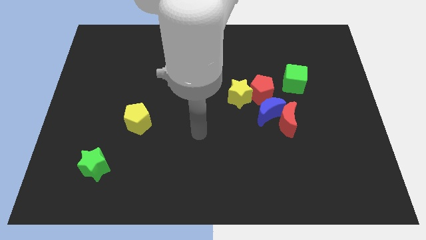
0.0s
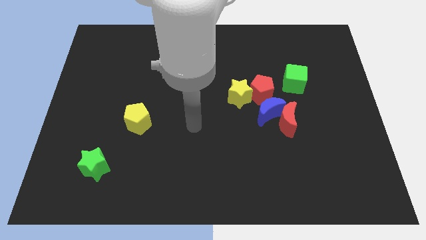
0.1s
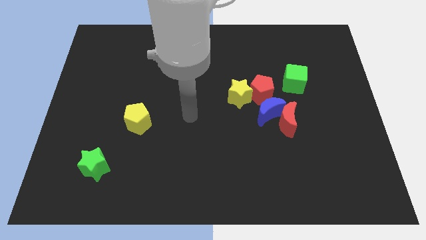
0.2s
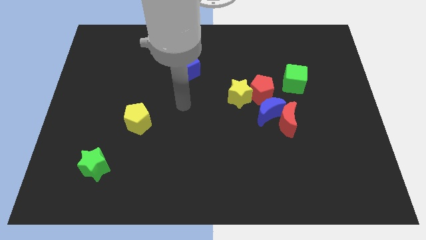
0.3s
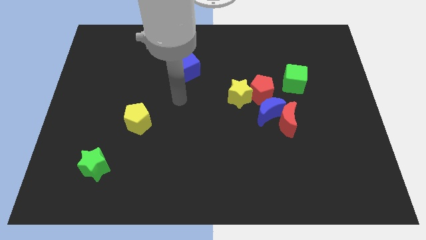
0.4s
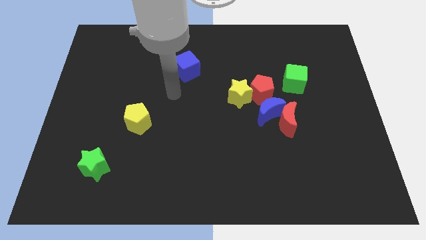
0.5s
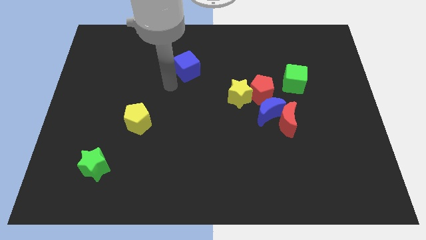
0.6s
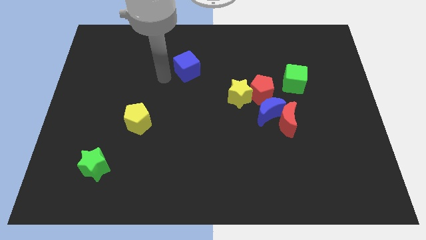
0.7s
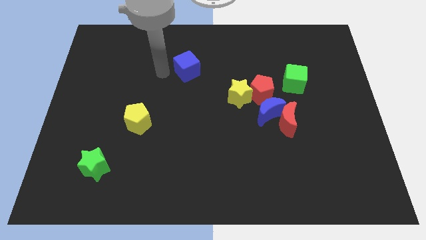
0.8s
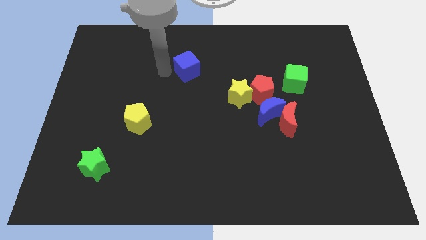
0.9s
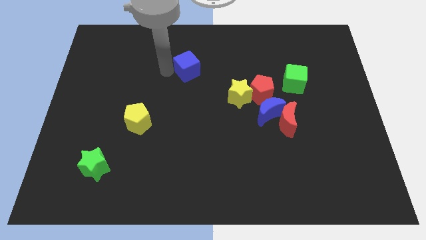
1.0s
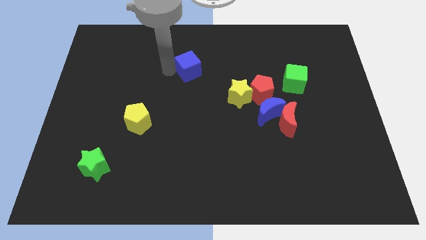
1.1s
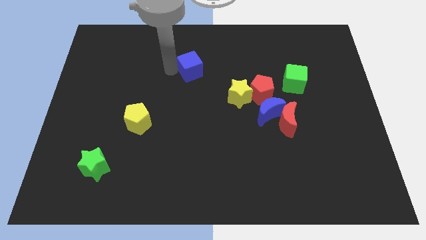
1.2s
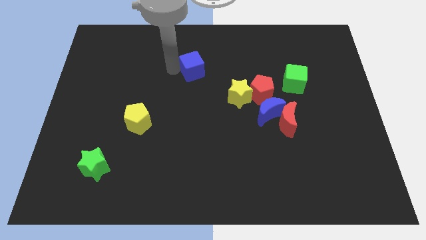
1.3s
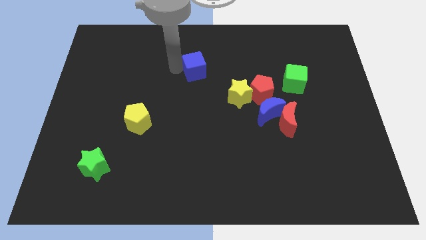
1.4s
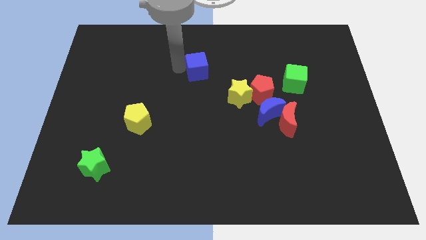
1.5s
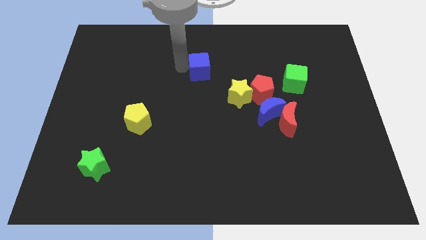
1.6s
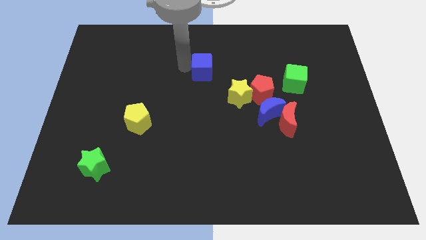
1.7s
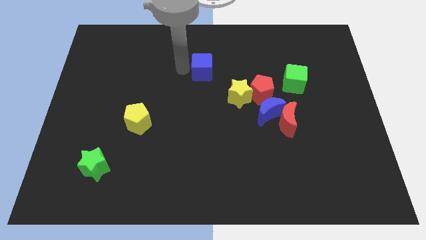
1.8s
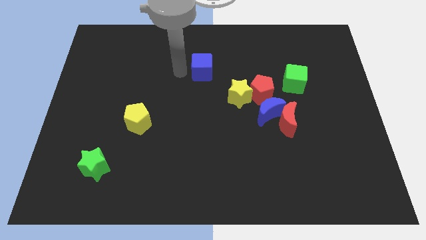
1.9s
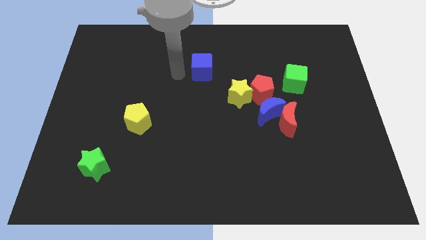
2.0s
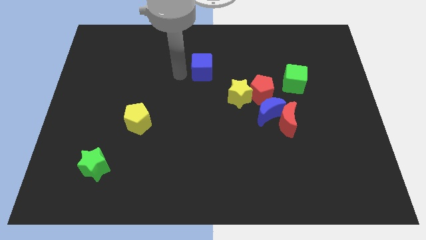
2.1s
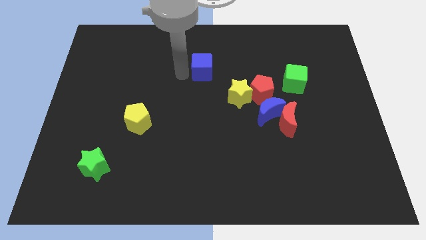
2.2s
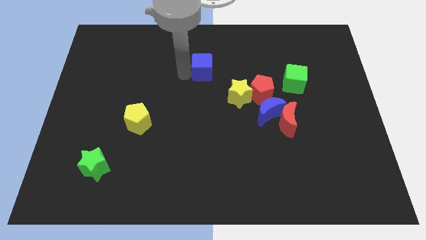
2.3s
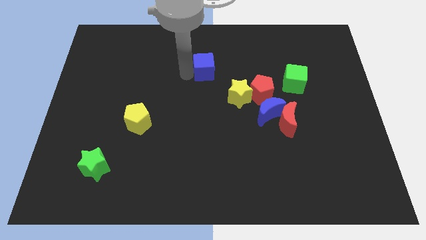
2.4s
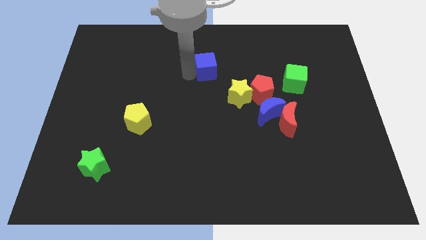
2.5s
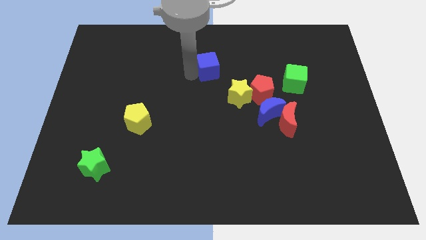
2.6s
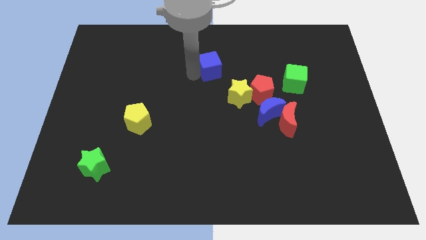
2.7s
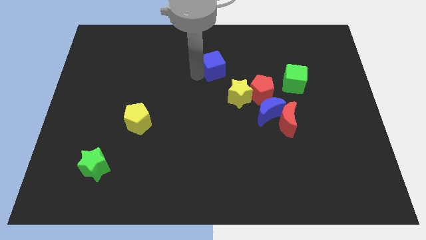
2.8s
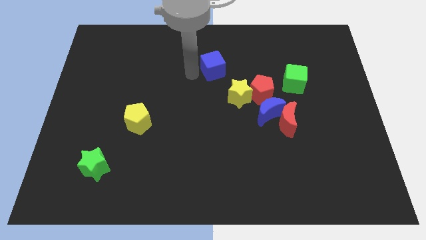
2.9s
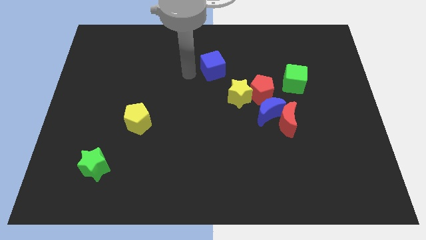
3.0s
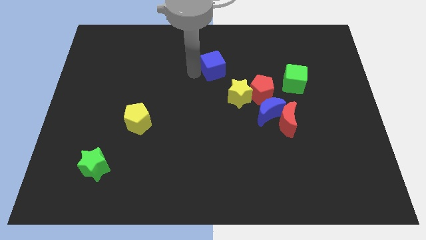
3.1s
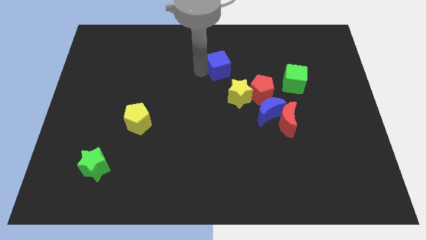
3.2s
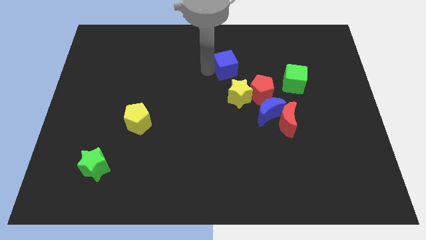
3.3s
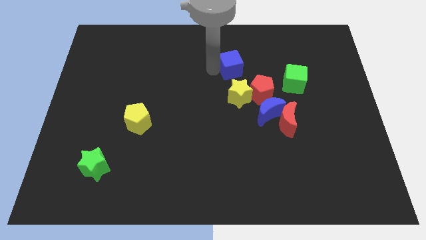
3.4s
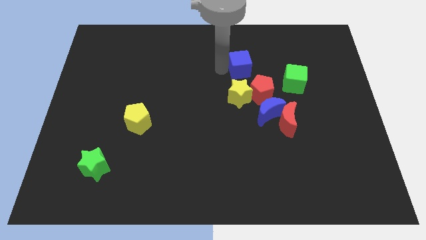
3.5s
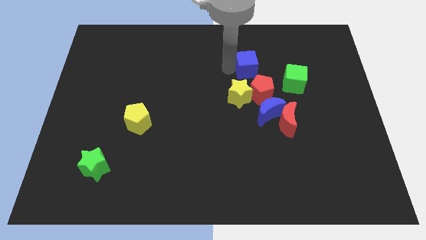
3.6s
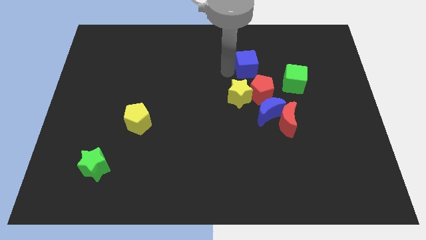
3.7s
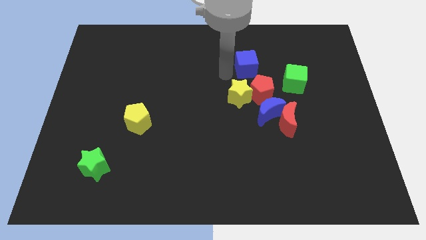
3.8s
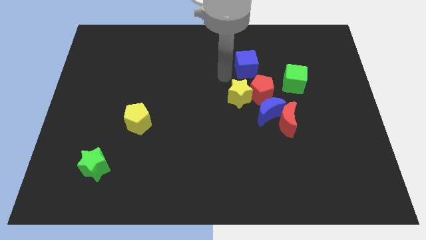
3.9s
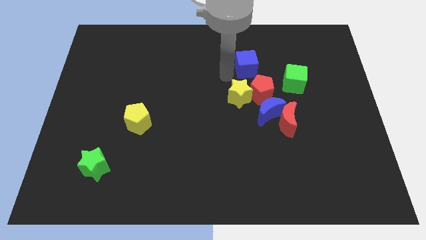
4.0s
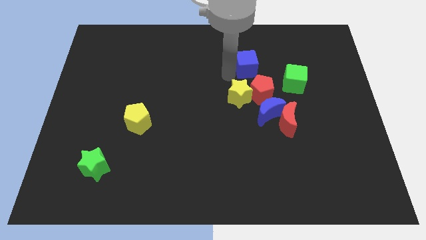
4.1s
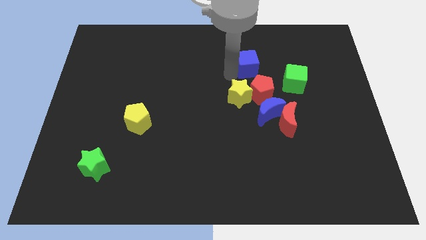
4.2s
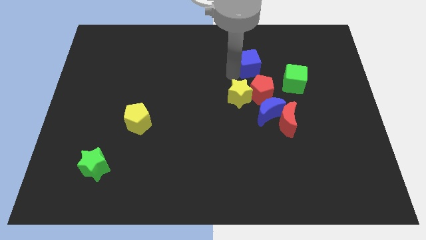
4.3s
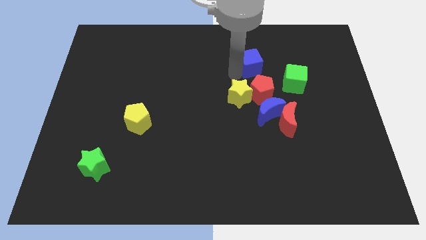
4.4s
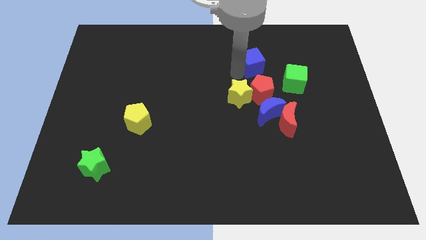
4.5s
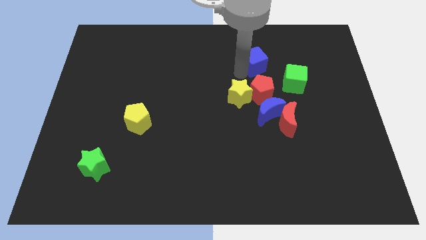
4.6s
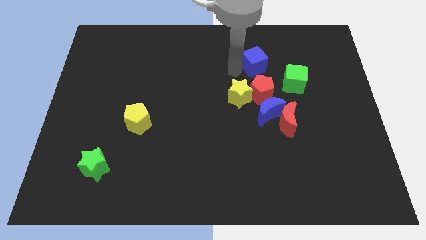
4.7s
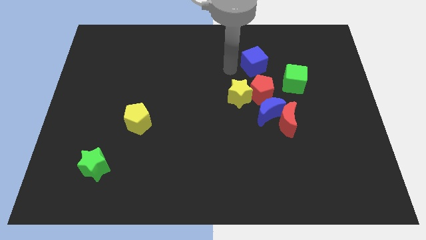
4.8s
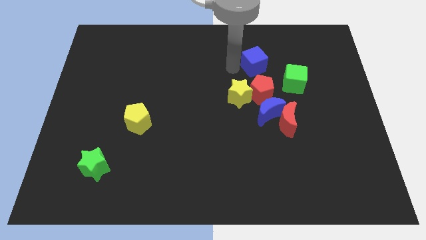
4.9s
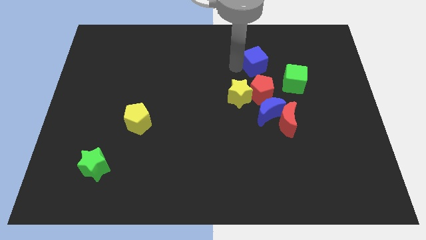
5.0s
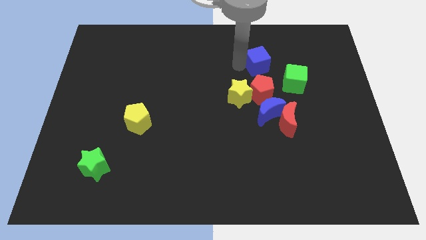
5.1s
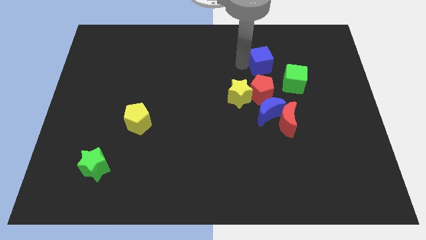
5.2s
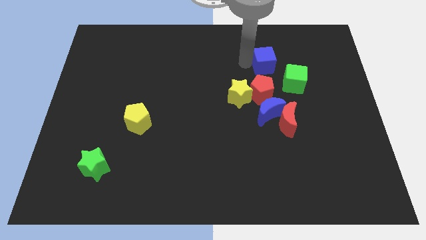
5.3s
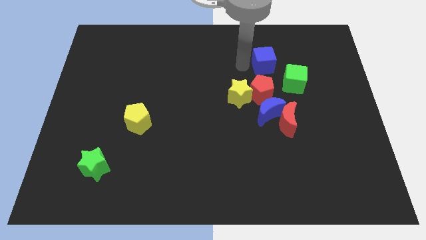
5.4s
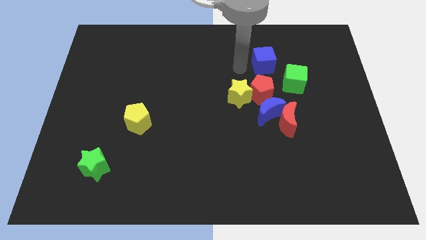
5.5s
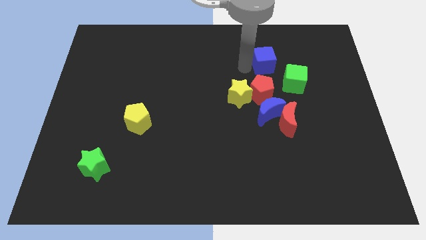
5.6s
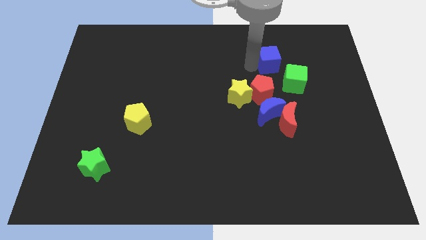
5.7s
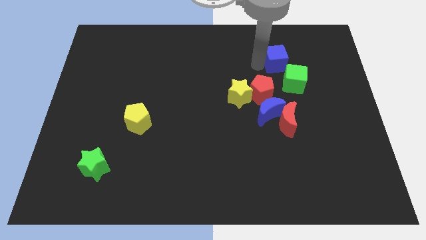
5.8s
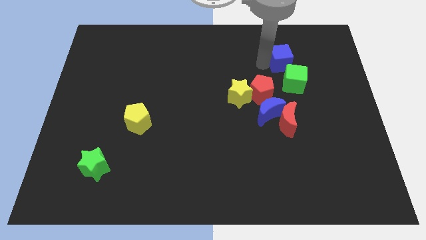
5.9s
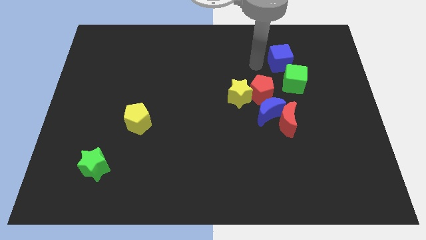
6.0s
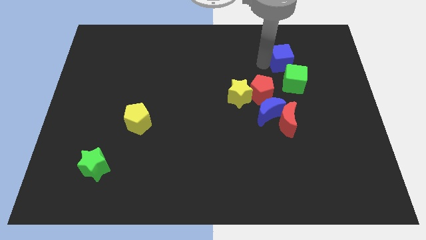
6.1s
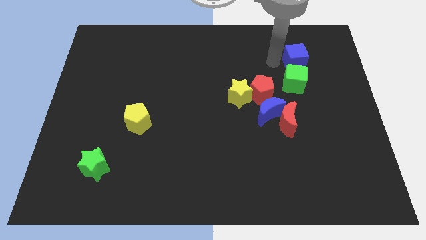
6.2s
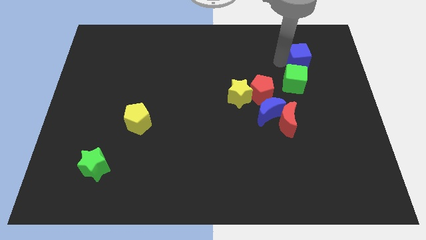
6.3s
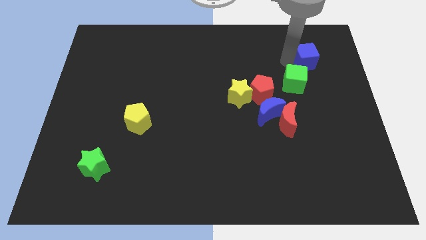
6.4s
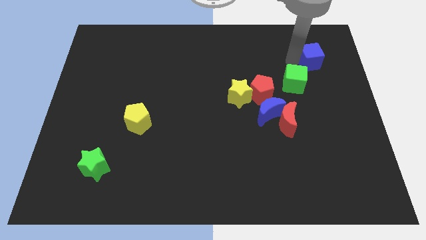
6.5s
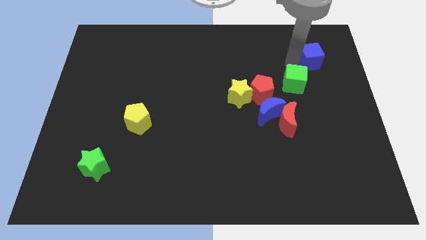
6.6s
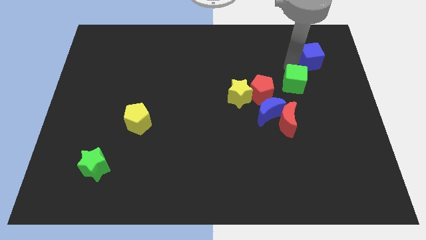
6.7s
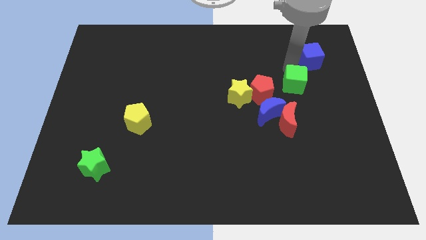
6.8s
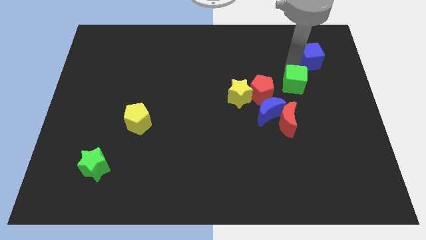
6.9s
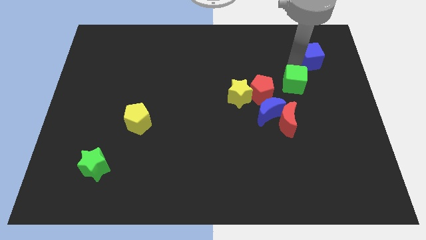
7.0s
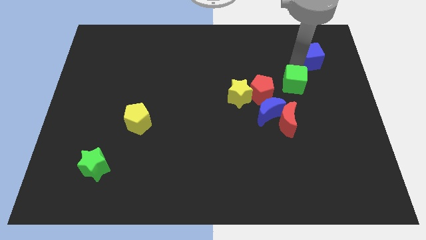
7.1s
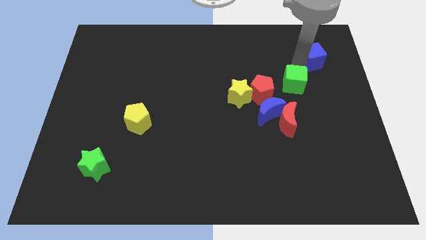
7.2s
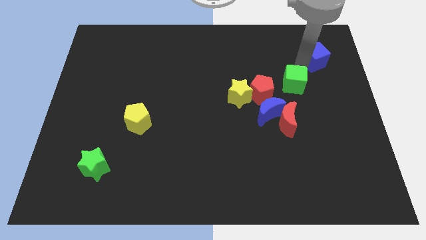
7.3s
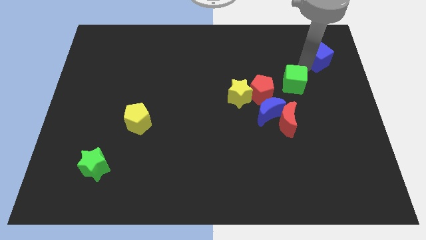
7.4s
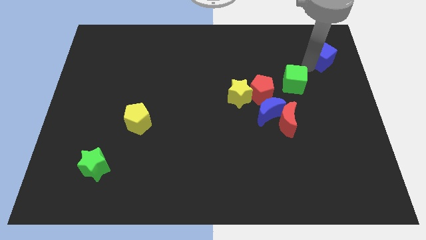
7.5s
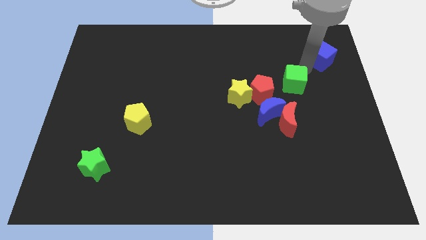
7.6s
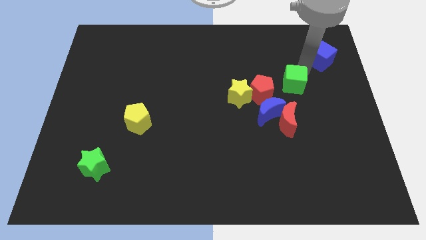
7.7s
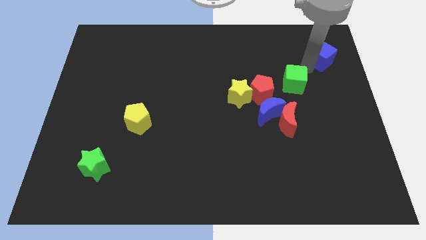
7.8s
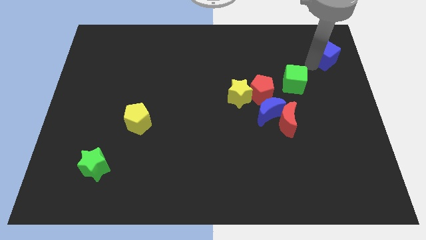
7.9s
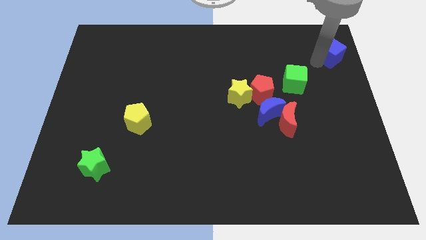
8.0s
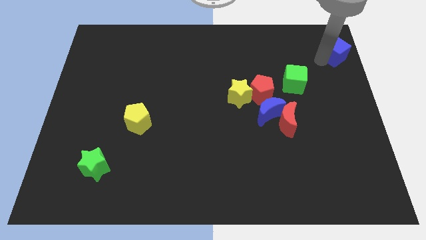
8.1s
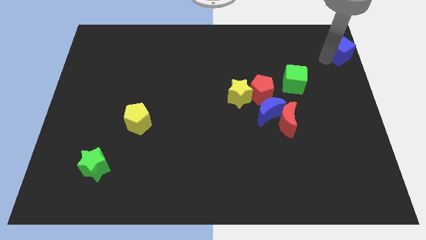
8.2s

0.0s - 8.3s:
move the blue cube to the top right of the board
